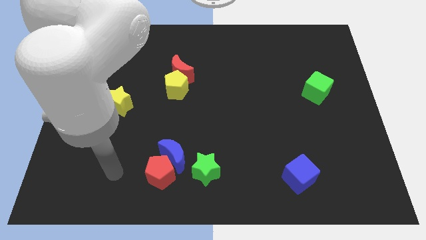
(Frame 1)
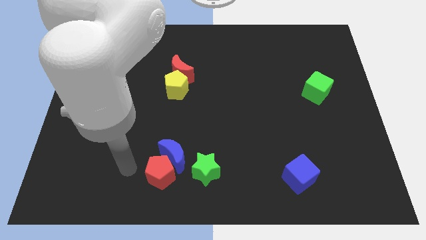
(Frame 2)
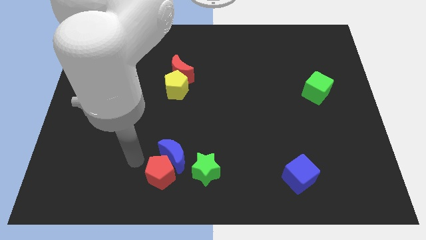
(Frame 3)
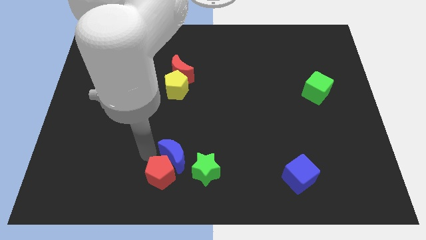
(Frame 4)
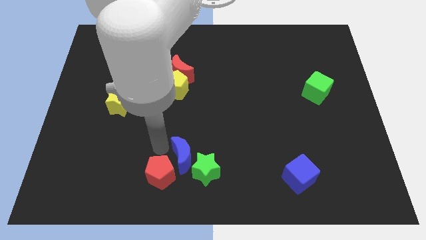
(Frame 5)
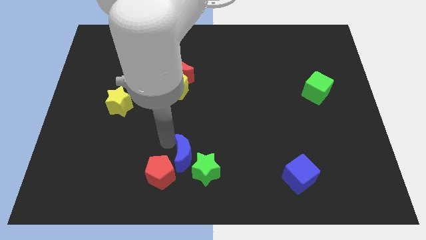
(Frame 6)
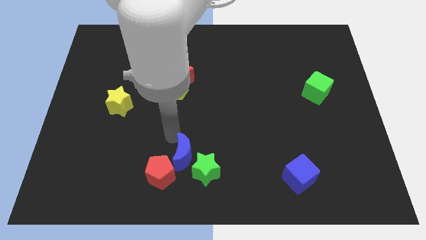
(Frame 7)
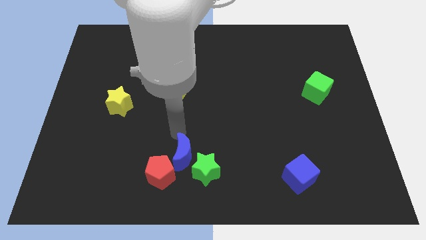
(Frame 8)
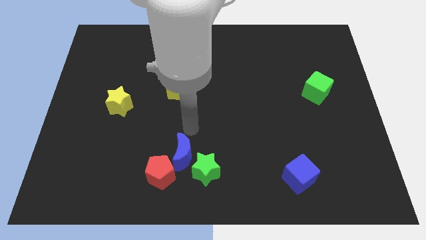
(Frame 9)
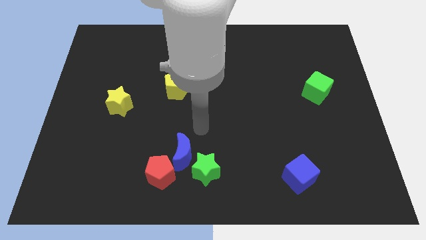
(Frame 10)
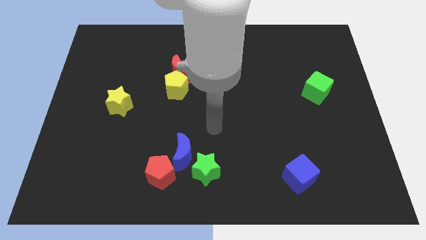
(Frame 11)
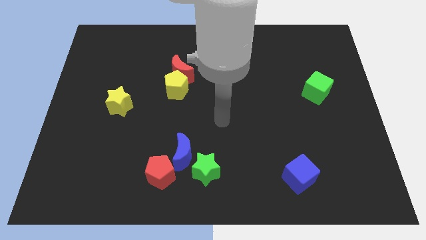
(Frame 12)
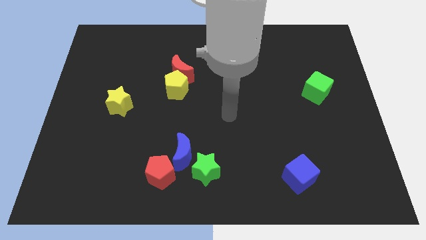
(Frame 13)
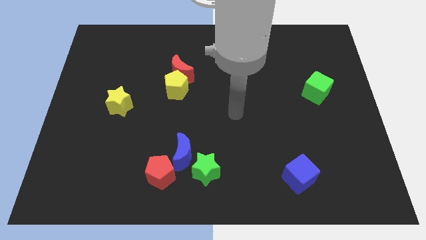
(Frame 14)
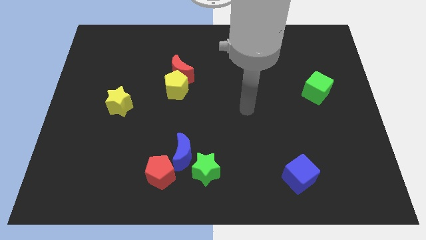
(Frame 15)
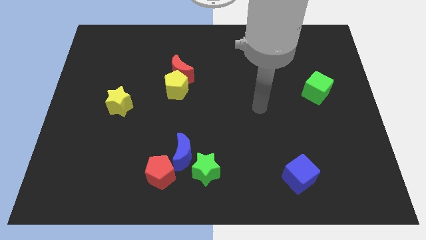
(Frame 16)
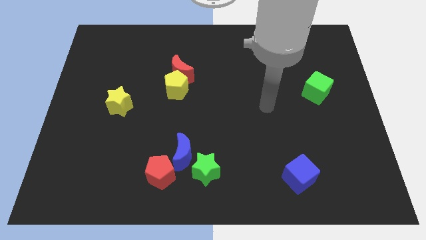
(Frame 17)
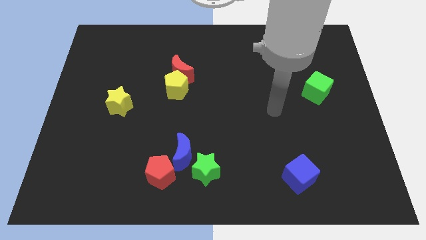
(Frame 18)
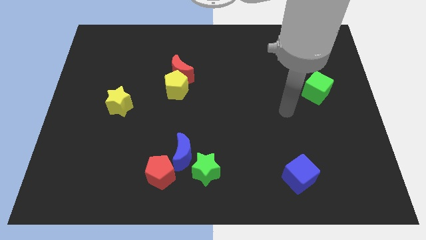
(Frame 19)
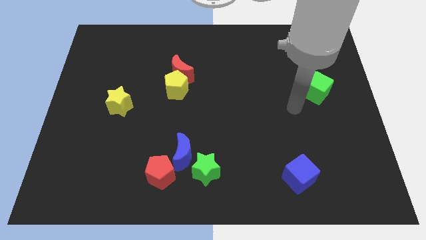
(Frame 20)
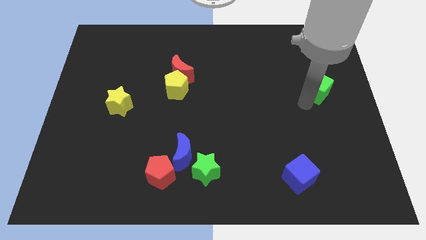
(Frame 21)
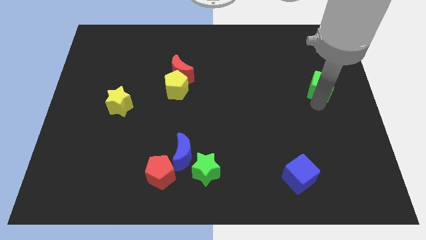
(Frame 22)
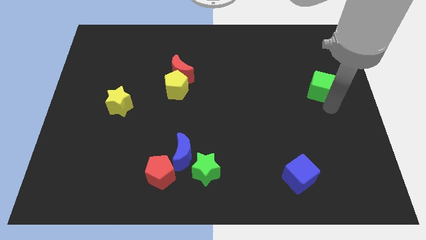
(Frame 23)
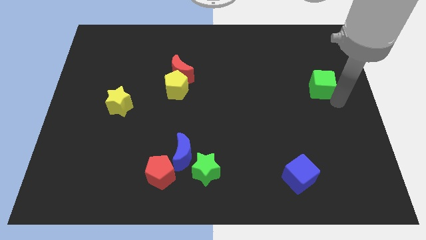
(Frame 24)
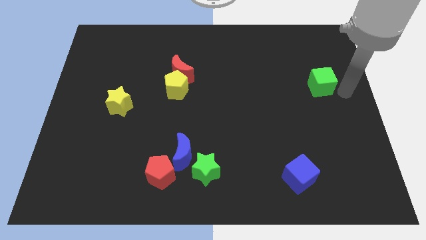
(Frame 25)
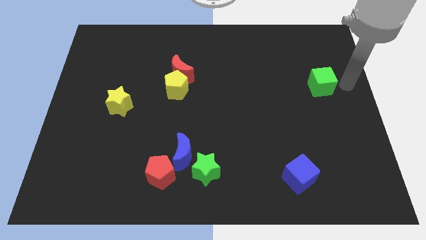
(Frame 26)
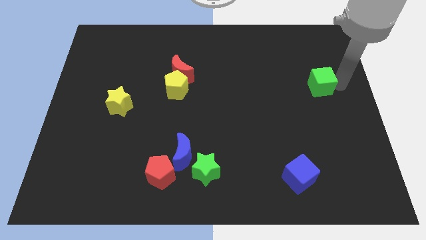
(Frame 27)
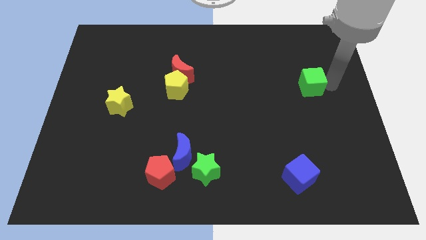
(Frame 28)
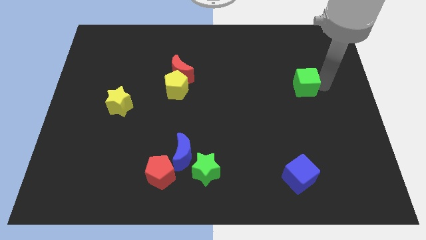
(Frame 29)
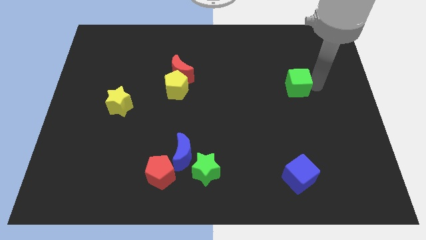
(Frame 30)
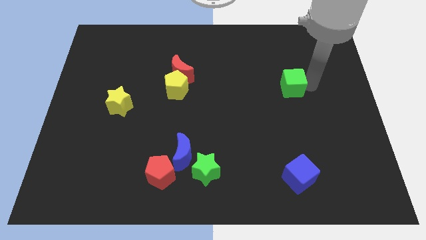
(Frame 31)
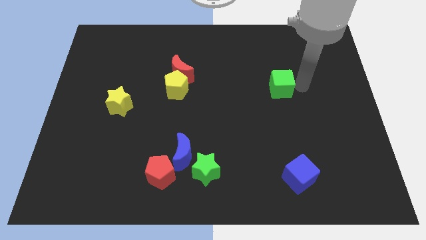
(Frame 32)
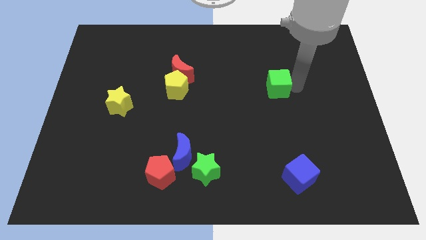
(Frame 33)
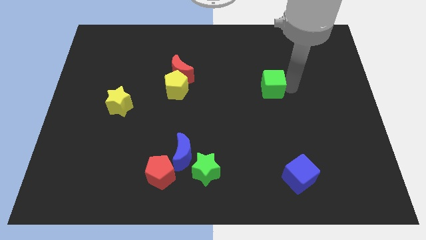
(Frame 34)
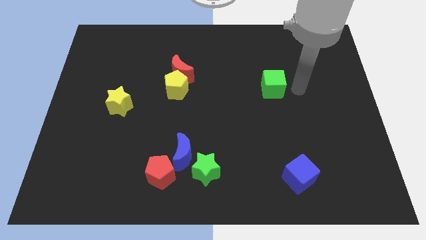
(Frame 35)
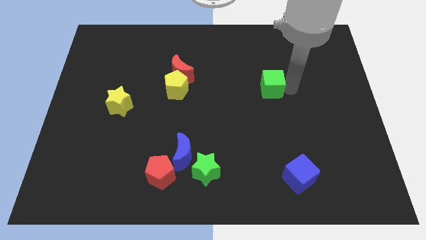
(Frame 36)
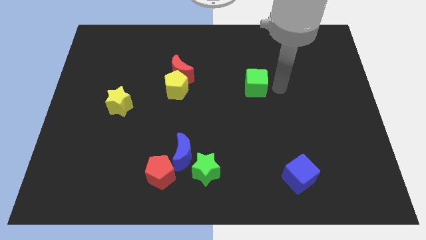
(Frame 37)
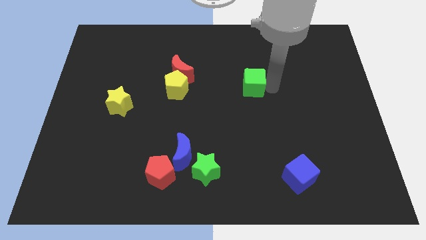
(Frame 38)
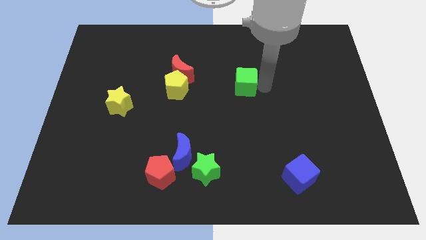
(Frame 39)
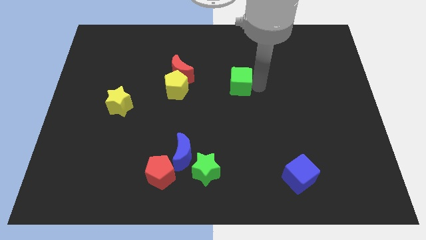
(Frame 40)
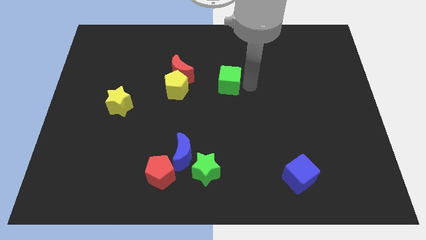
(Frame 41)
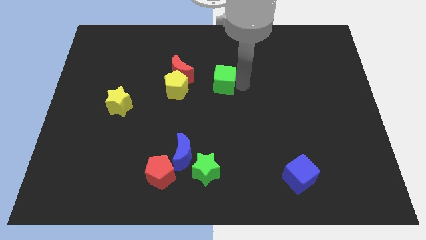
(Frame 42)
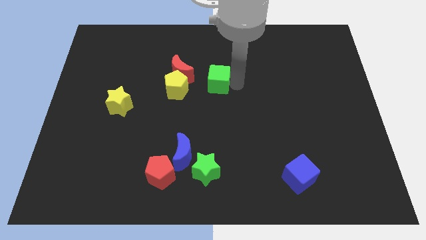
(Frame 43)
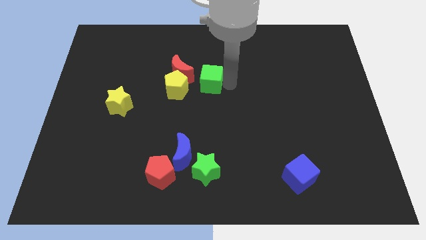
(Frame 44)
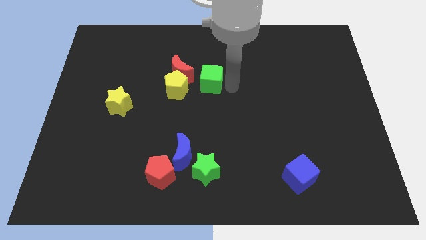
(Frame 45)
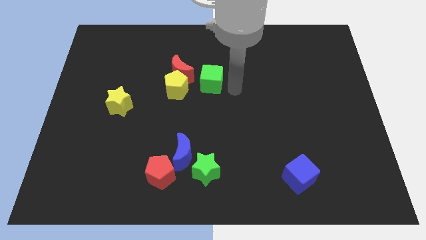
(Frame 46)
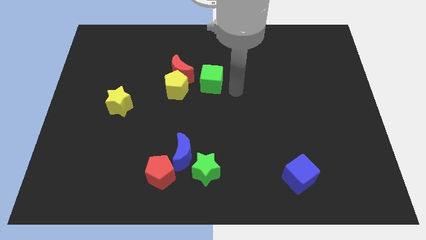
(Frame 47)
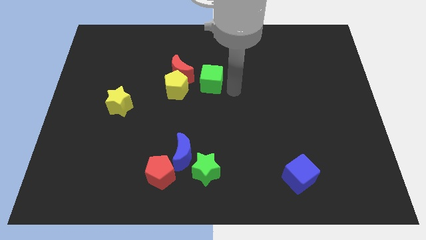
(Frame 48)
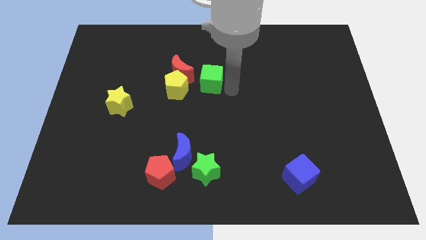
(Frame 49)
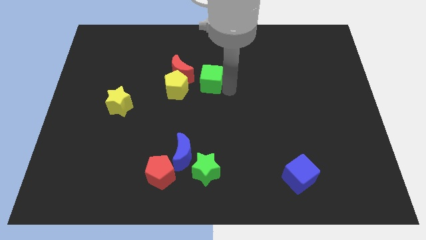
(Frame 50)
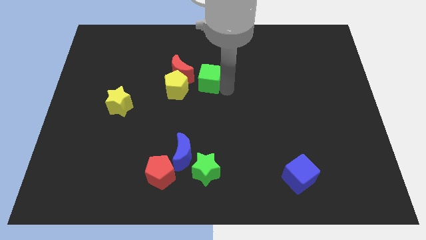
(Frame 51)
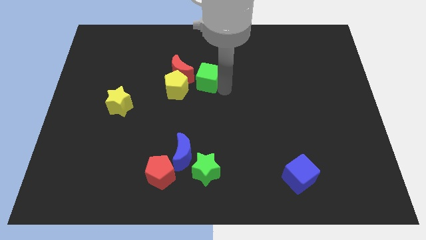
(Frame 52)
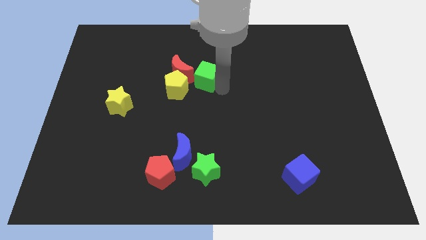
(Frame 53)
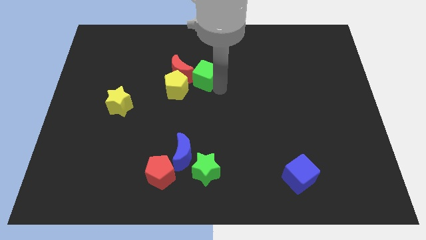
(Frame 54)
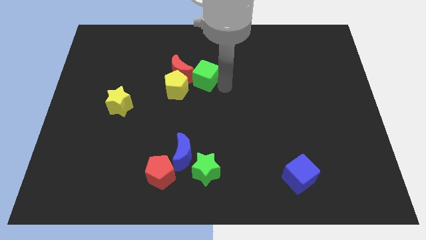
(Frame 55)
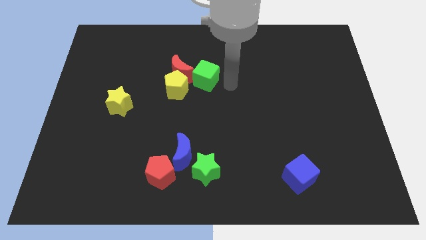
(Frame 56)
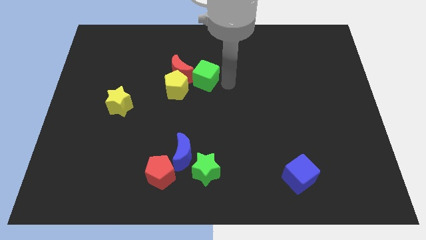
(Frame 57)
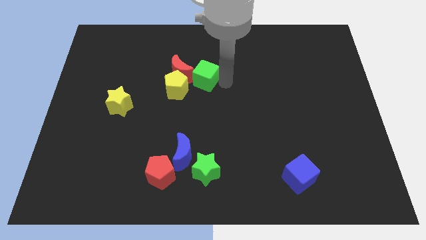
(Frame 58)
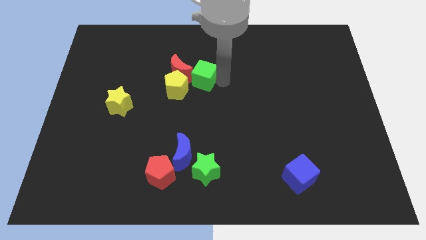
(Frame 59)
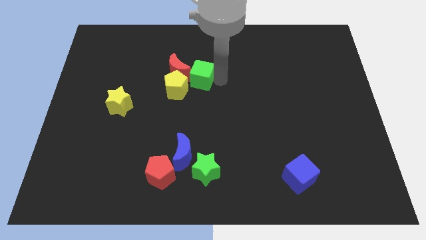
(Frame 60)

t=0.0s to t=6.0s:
move the green cube next to the red moon

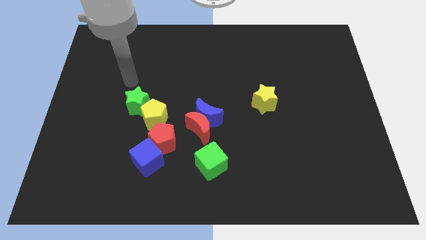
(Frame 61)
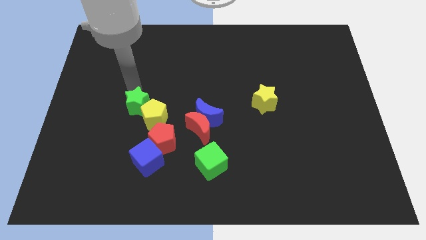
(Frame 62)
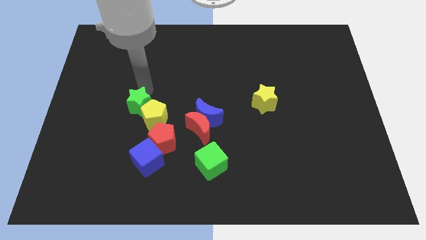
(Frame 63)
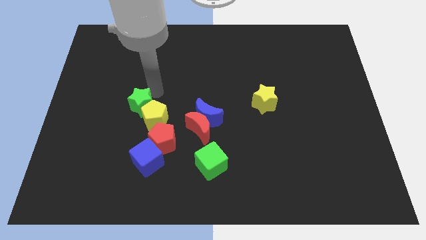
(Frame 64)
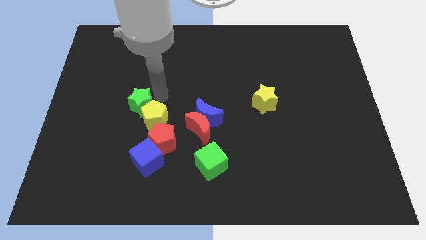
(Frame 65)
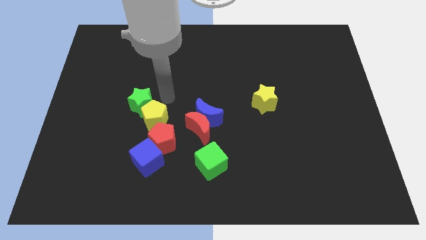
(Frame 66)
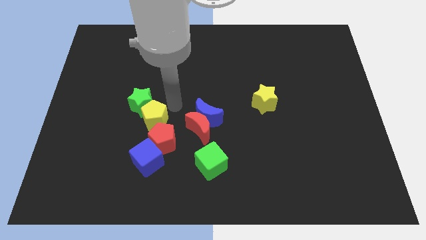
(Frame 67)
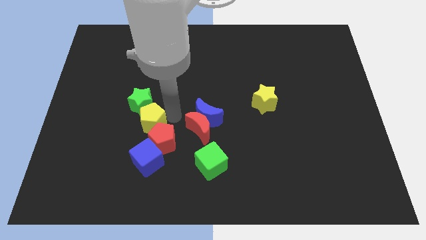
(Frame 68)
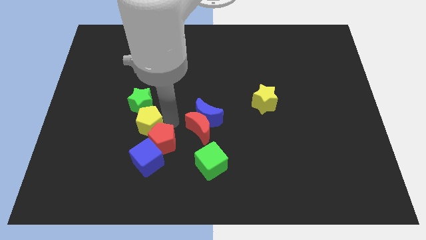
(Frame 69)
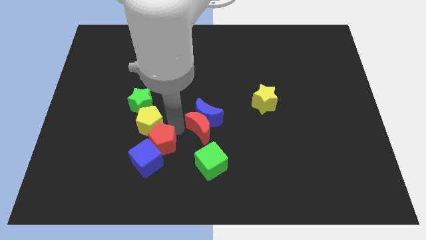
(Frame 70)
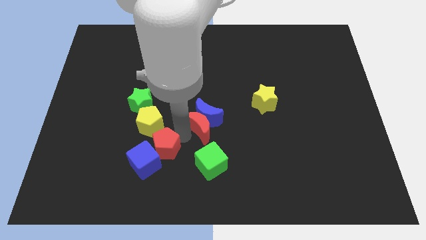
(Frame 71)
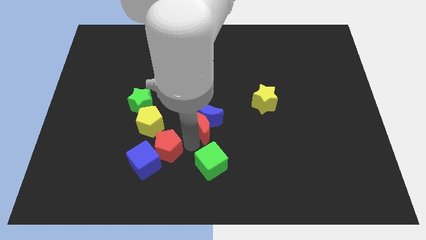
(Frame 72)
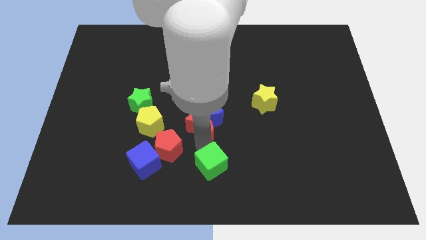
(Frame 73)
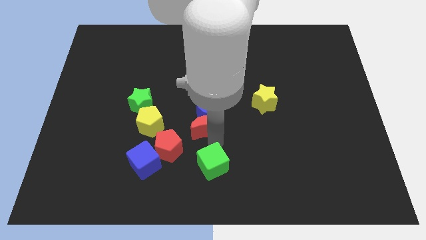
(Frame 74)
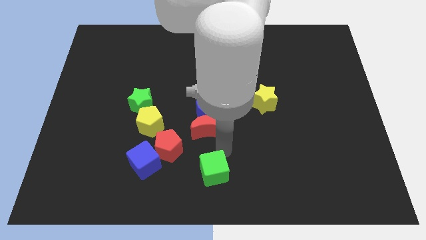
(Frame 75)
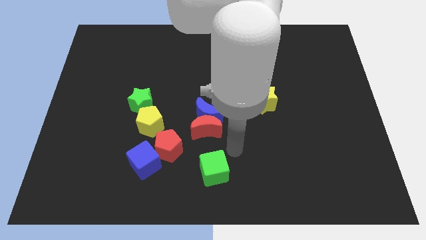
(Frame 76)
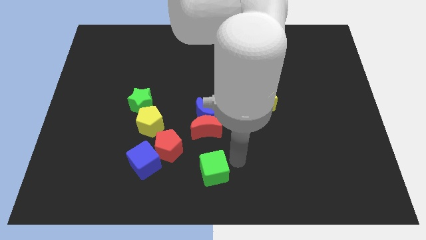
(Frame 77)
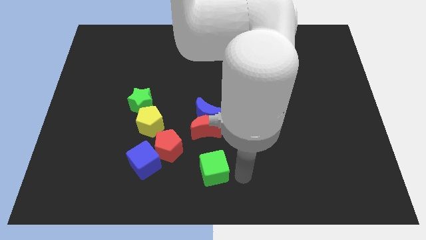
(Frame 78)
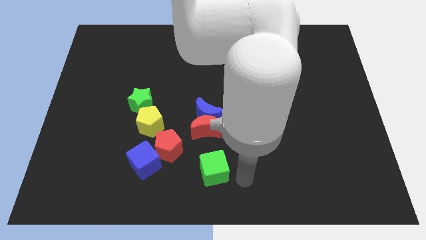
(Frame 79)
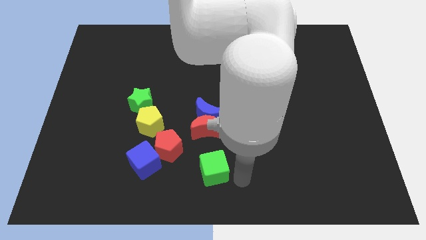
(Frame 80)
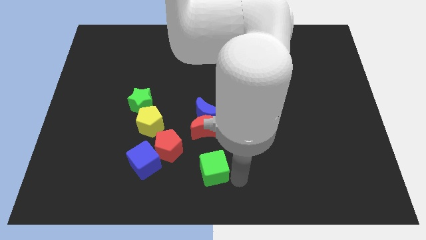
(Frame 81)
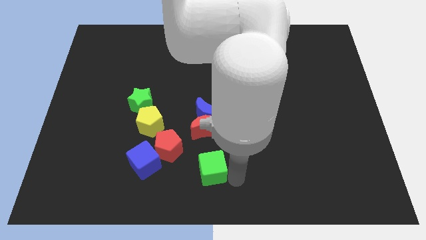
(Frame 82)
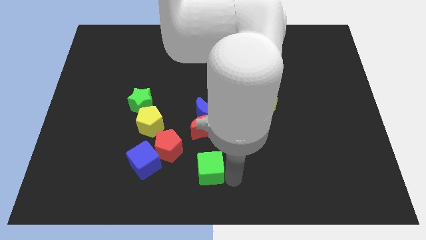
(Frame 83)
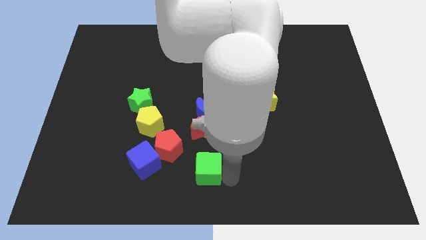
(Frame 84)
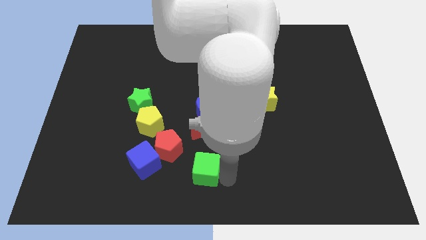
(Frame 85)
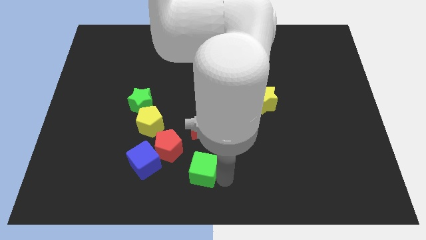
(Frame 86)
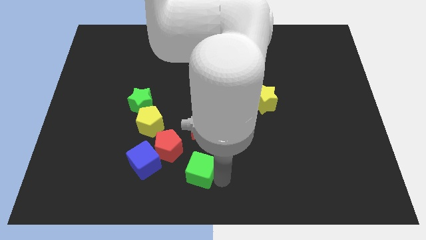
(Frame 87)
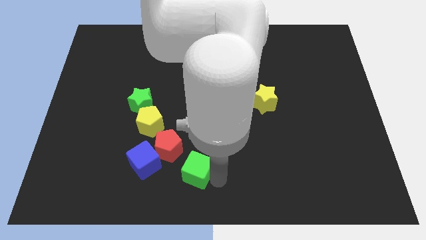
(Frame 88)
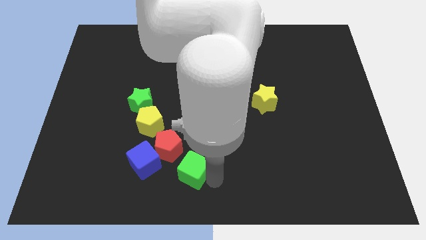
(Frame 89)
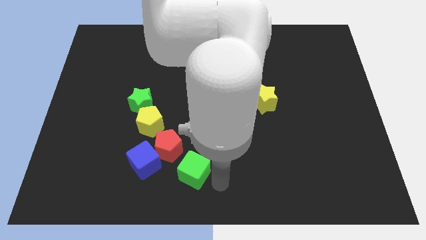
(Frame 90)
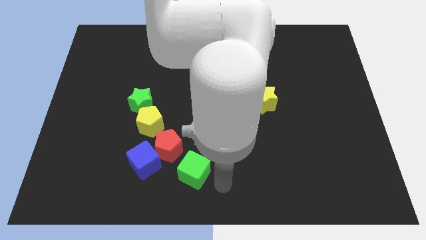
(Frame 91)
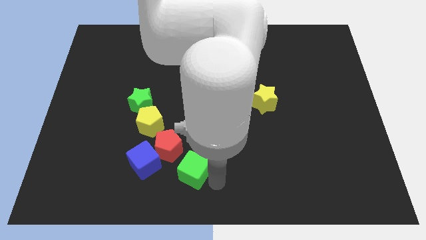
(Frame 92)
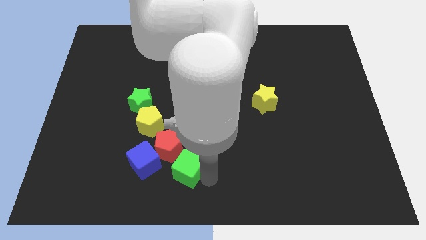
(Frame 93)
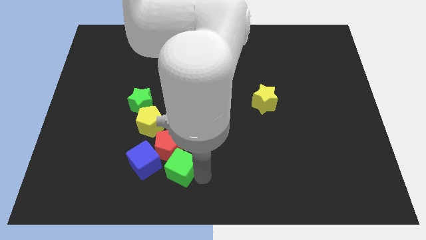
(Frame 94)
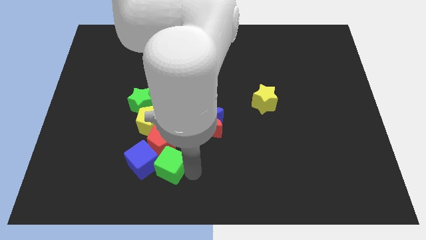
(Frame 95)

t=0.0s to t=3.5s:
put the green cube to the blue cube
